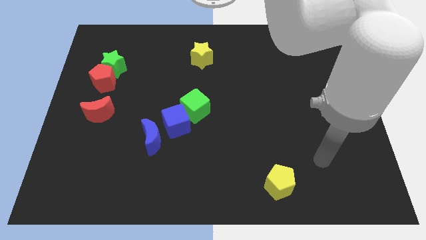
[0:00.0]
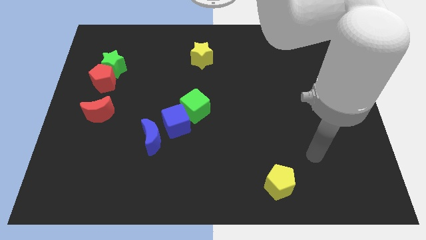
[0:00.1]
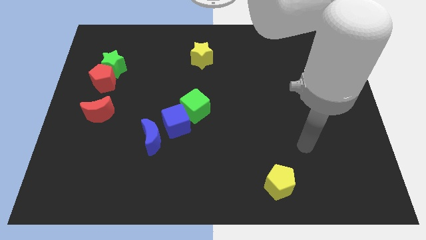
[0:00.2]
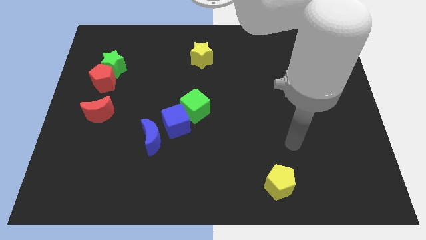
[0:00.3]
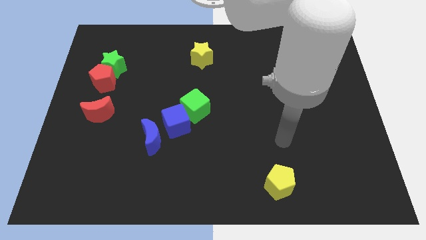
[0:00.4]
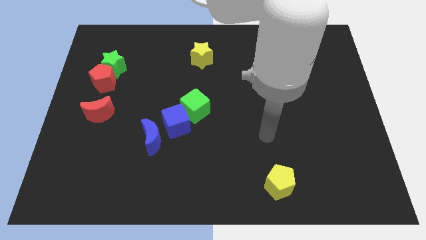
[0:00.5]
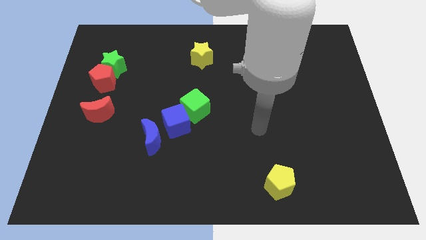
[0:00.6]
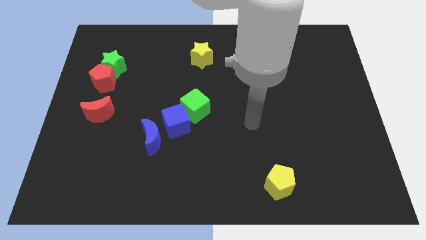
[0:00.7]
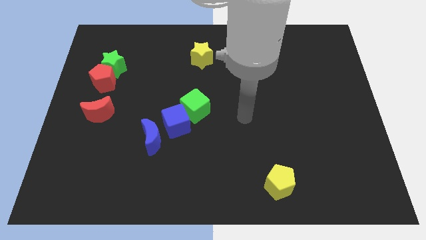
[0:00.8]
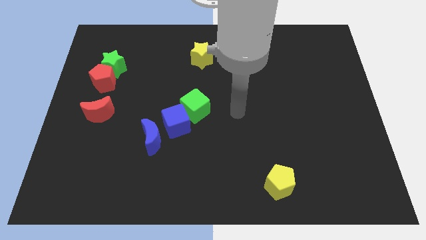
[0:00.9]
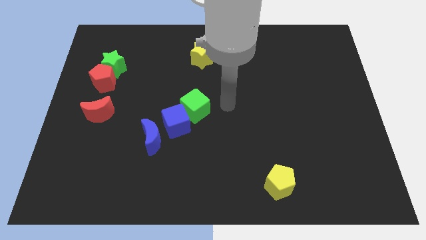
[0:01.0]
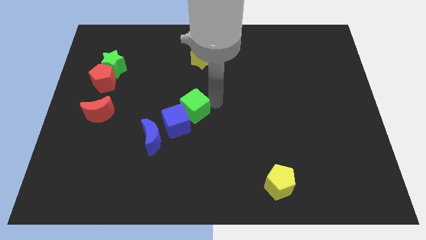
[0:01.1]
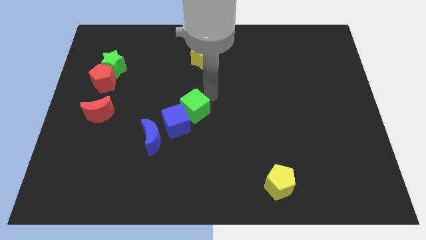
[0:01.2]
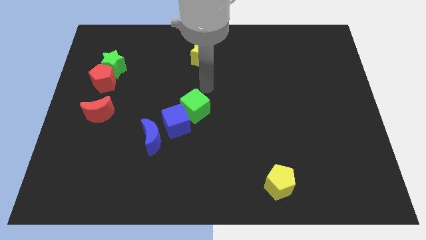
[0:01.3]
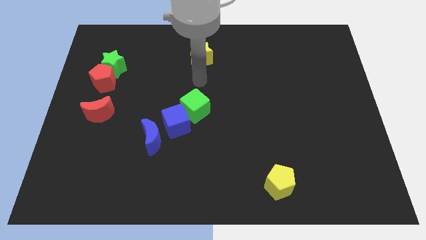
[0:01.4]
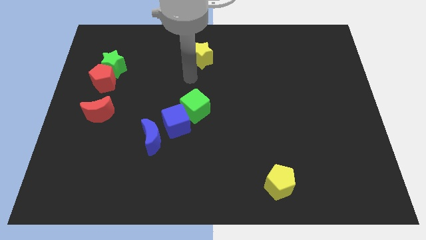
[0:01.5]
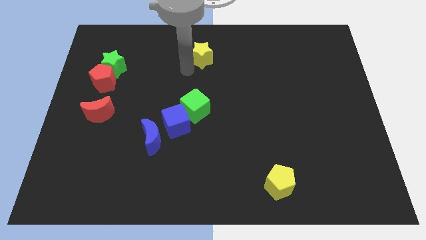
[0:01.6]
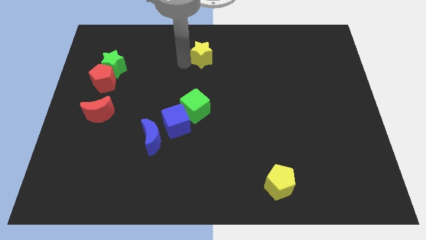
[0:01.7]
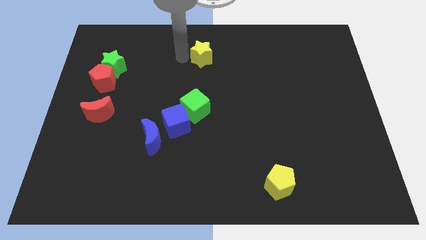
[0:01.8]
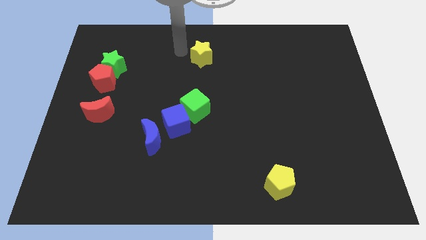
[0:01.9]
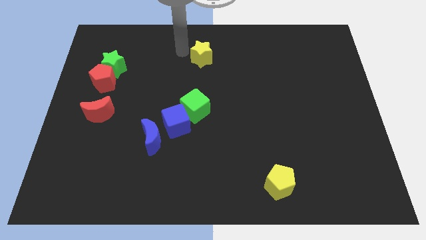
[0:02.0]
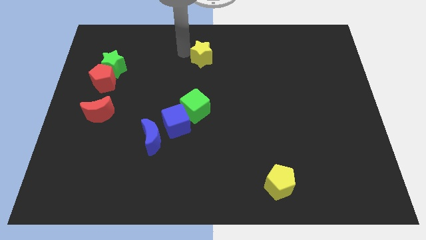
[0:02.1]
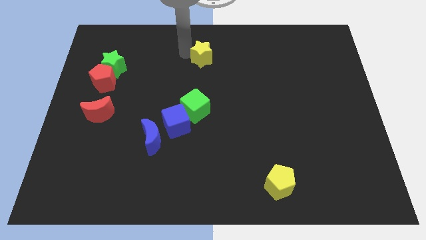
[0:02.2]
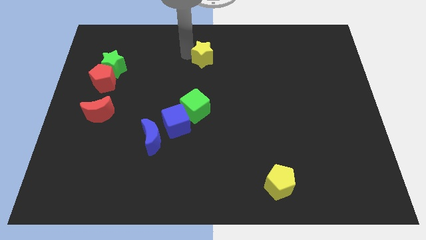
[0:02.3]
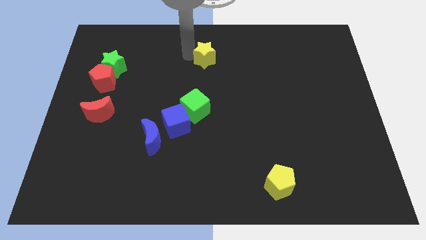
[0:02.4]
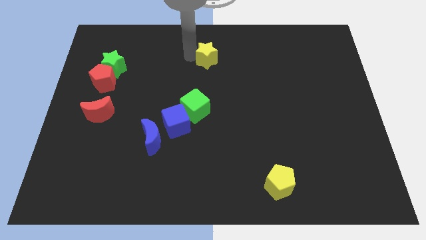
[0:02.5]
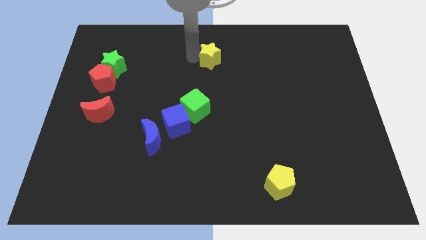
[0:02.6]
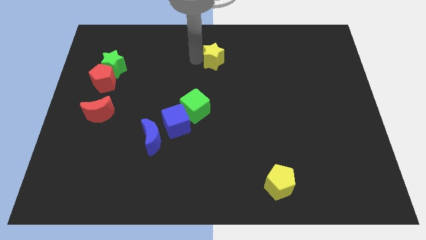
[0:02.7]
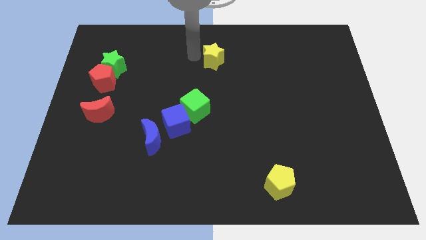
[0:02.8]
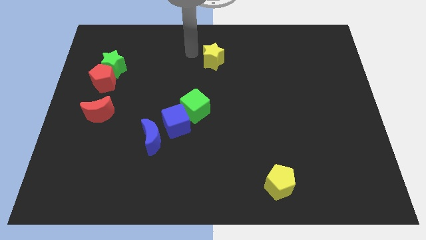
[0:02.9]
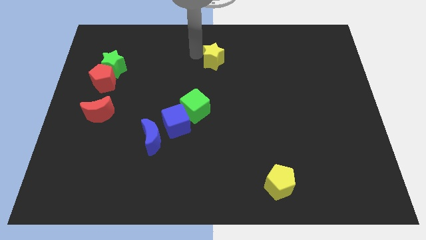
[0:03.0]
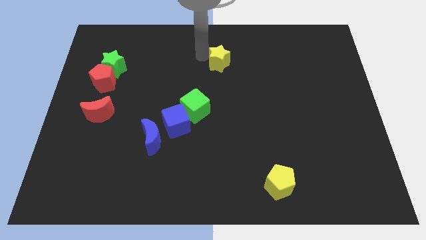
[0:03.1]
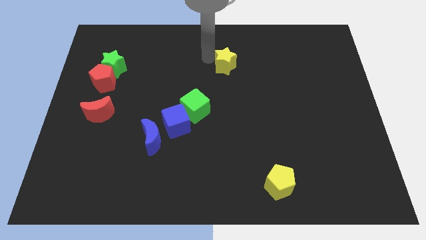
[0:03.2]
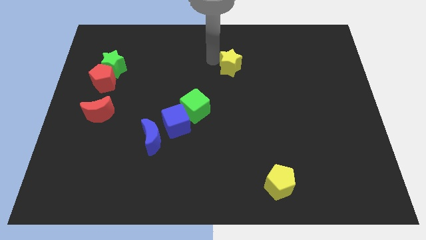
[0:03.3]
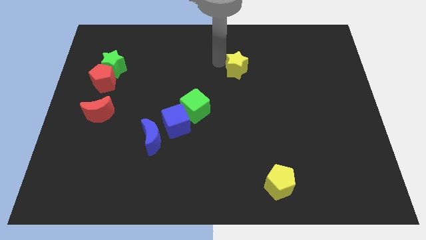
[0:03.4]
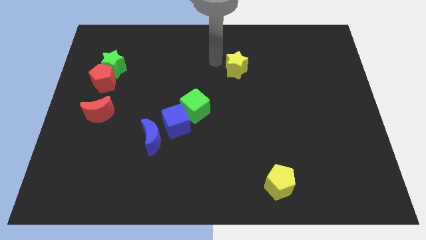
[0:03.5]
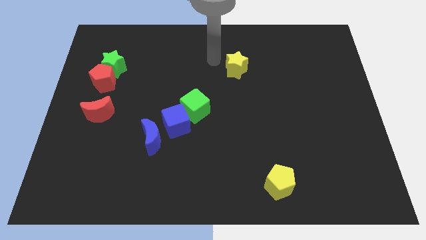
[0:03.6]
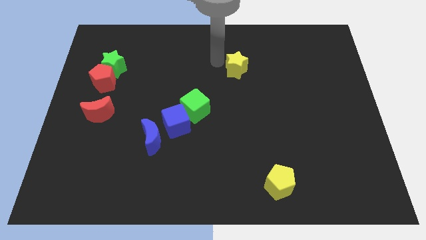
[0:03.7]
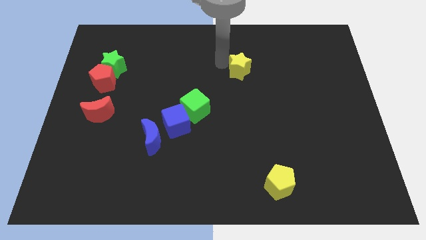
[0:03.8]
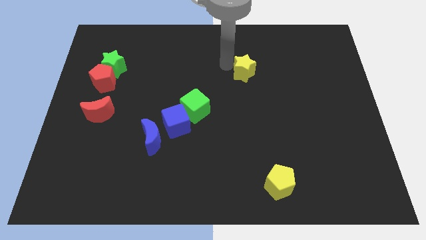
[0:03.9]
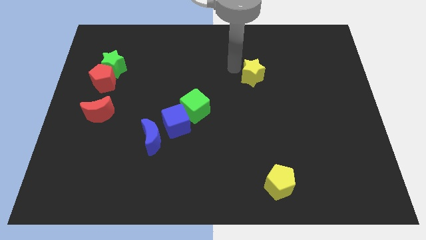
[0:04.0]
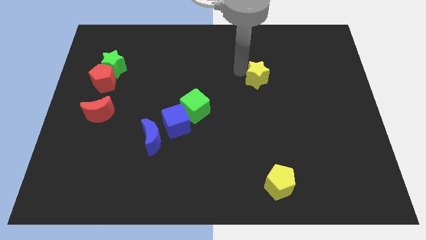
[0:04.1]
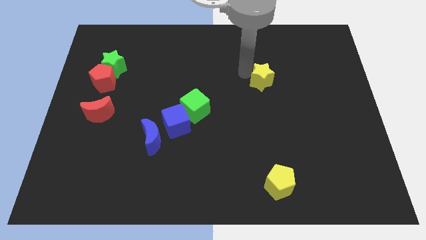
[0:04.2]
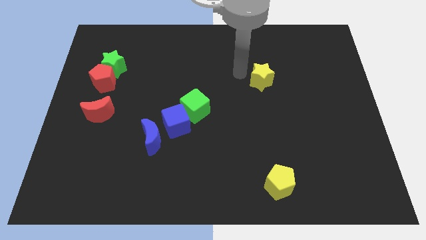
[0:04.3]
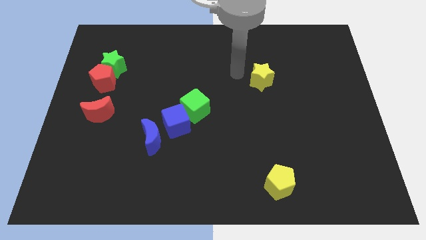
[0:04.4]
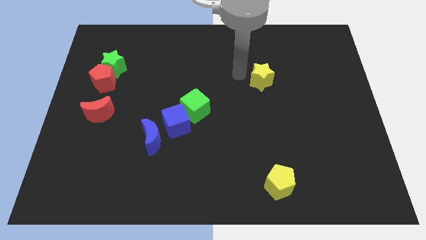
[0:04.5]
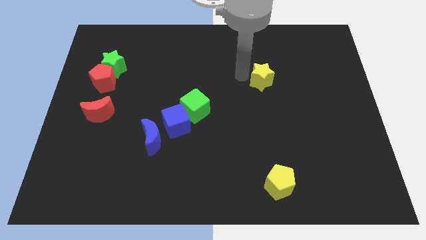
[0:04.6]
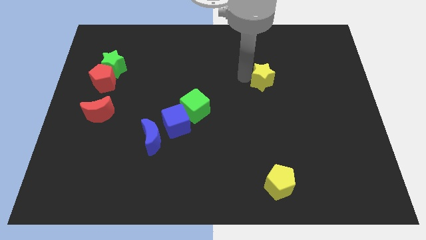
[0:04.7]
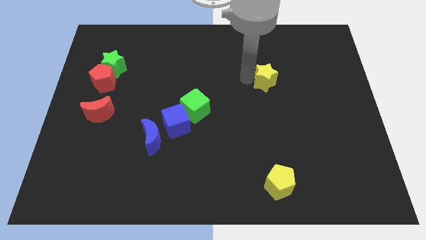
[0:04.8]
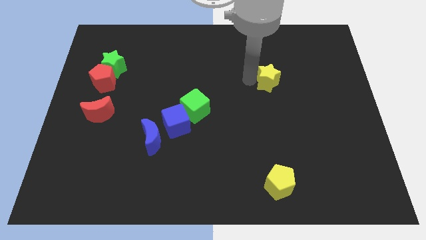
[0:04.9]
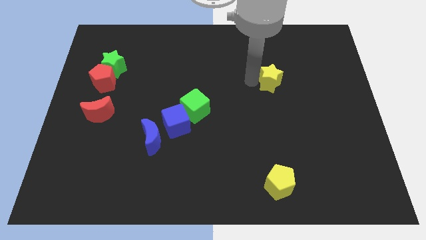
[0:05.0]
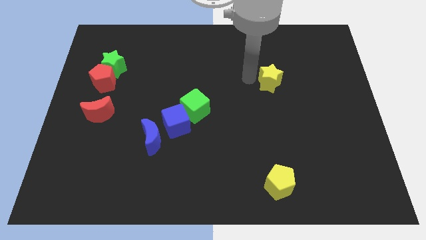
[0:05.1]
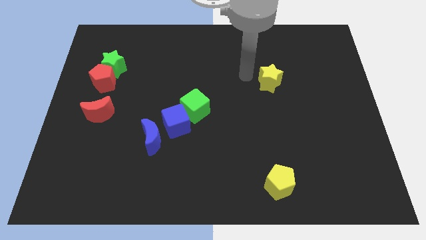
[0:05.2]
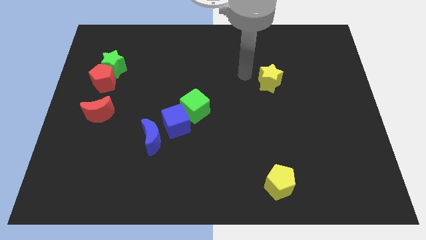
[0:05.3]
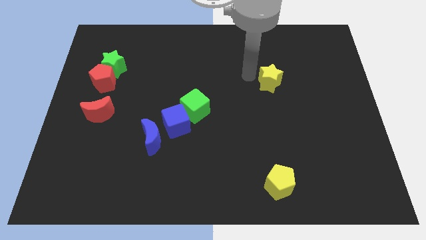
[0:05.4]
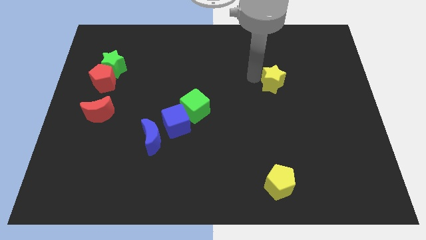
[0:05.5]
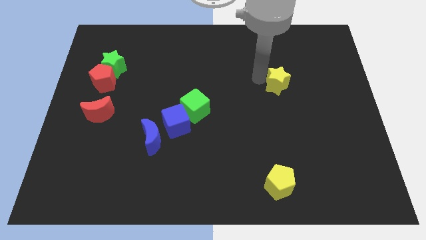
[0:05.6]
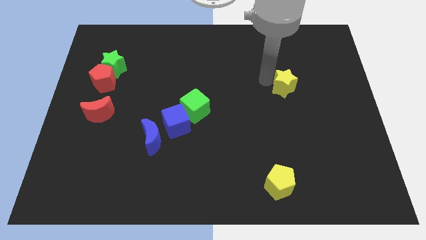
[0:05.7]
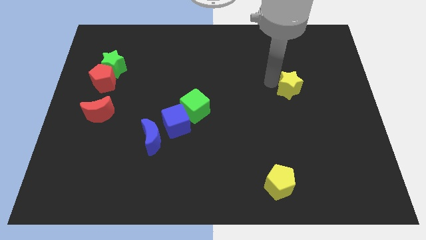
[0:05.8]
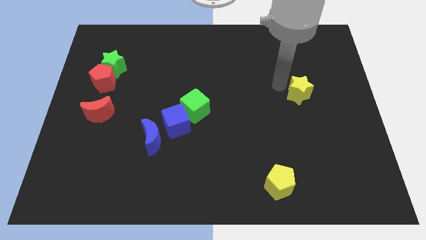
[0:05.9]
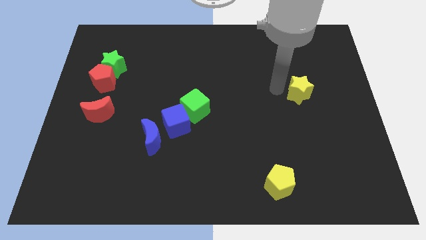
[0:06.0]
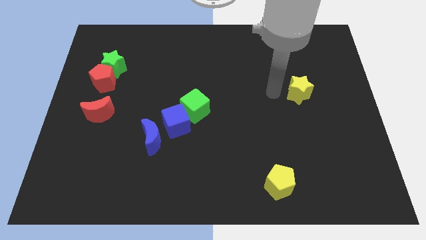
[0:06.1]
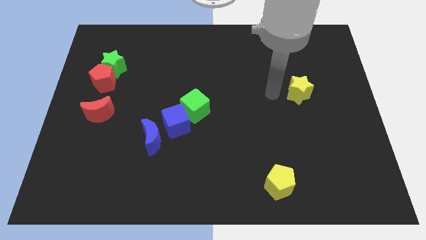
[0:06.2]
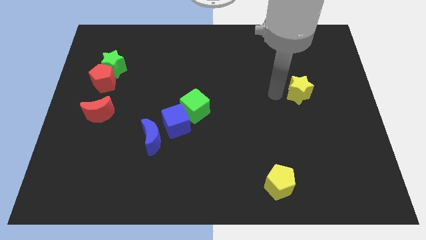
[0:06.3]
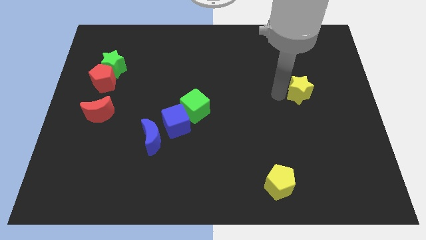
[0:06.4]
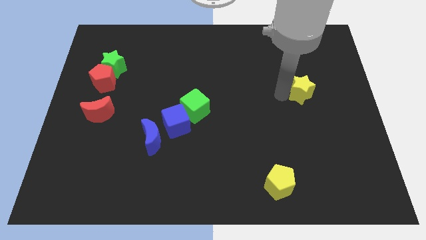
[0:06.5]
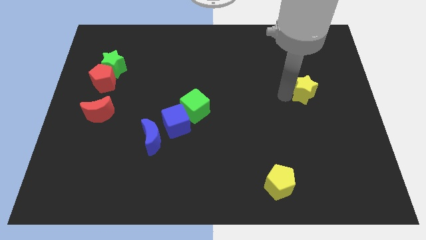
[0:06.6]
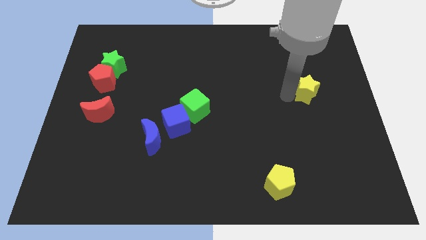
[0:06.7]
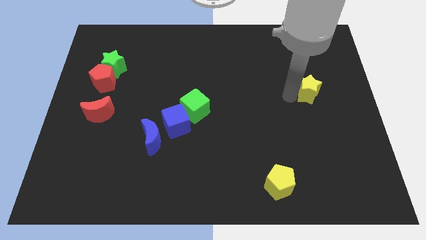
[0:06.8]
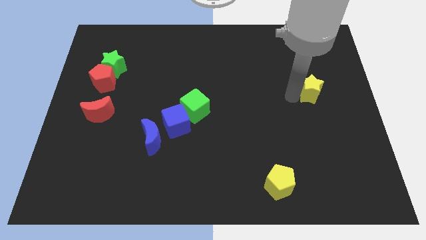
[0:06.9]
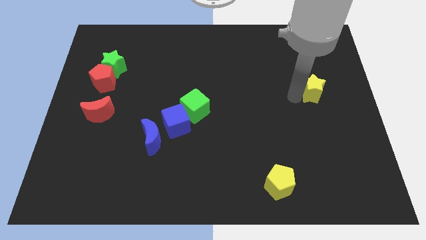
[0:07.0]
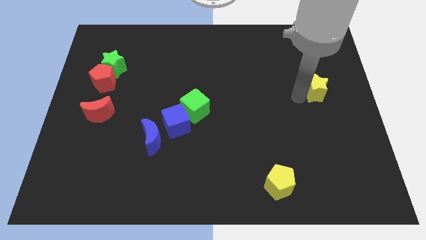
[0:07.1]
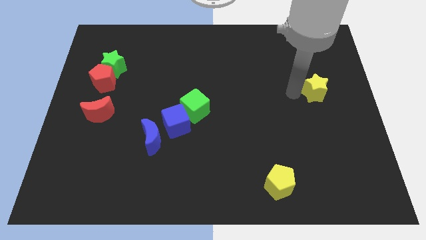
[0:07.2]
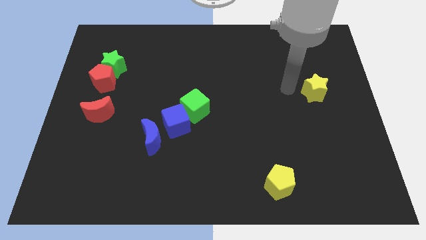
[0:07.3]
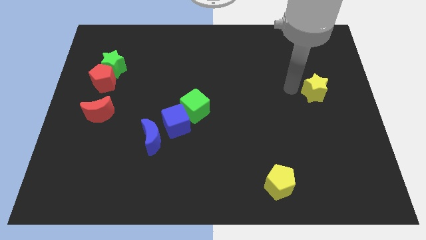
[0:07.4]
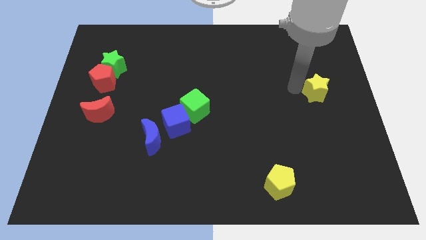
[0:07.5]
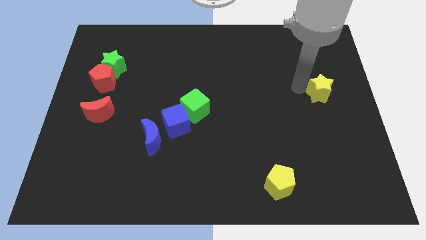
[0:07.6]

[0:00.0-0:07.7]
slide the yellow star to the right side

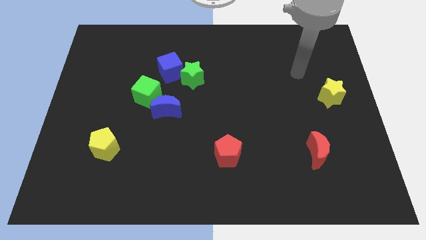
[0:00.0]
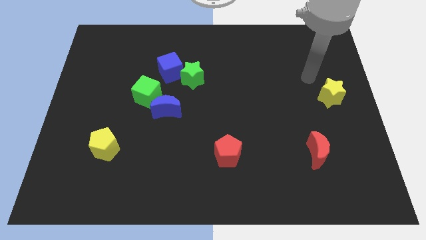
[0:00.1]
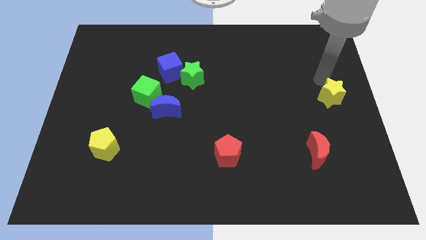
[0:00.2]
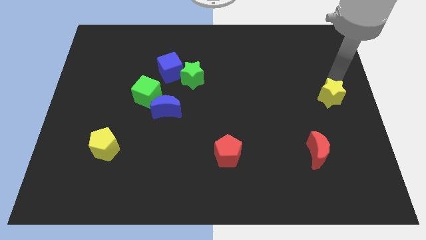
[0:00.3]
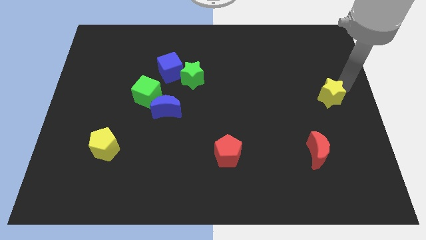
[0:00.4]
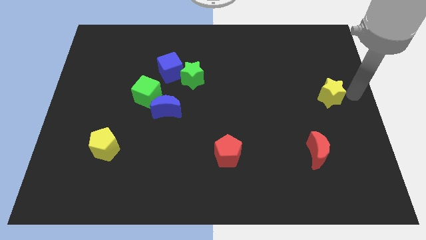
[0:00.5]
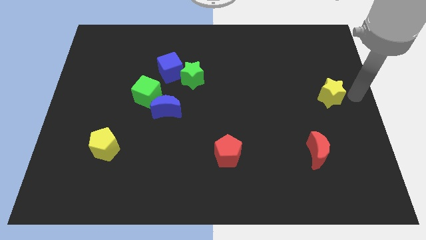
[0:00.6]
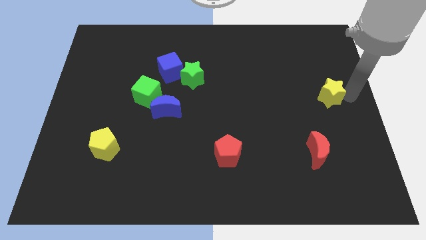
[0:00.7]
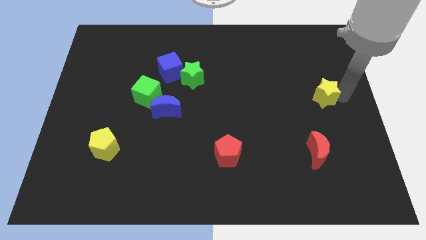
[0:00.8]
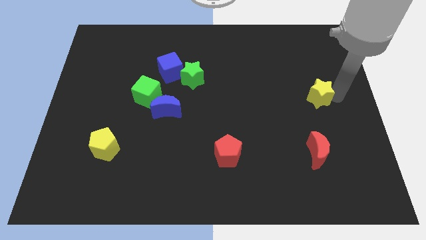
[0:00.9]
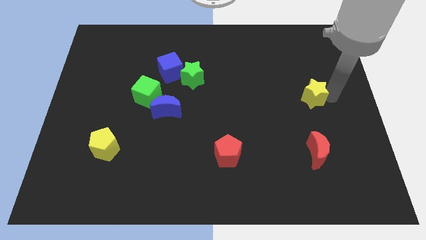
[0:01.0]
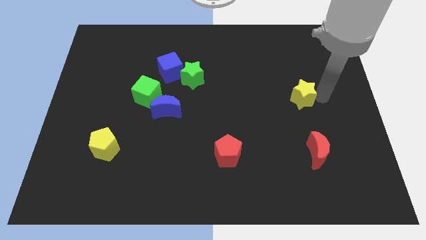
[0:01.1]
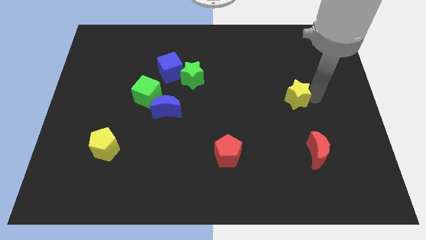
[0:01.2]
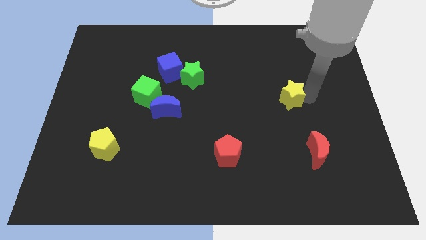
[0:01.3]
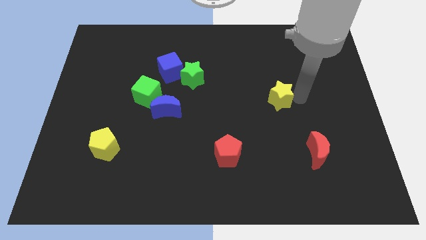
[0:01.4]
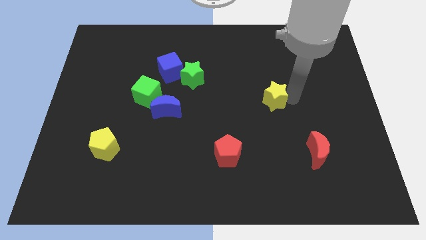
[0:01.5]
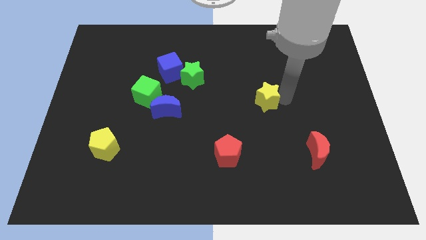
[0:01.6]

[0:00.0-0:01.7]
put the yellow star to the middle
